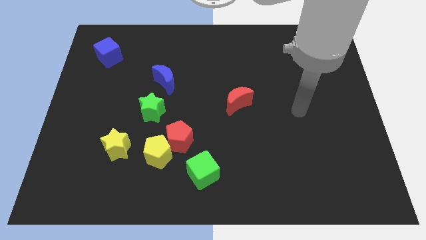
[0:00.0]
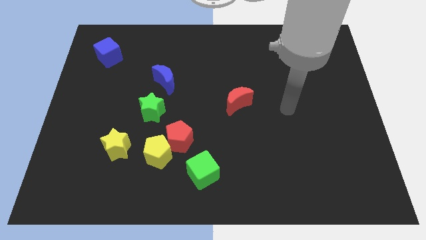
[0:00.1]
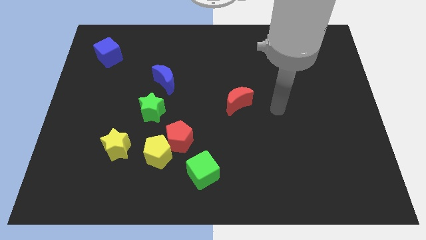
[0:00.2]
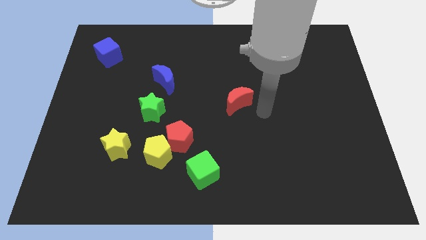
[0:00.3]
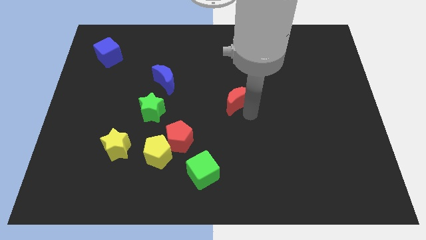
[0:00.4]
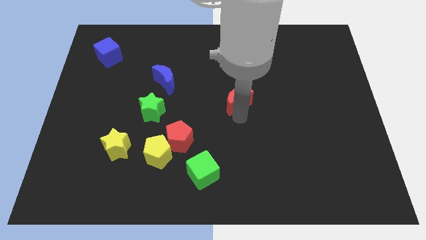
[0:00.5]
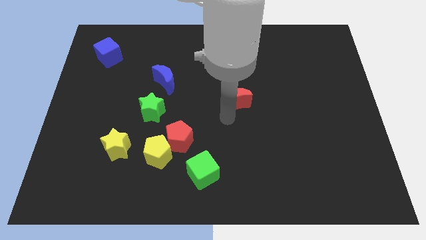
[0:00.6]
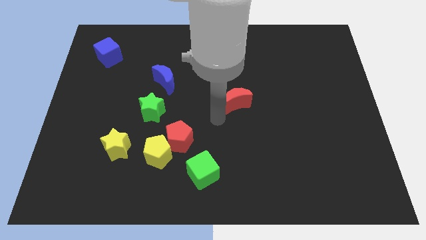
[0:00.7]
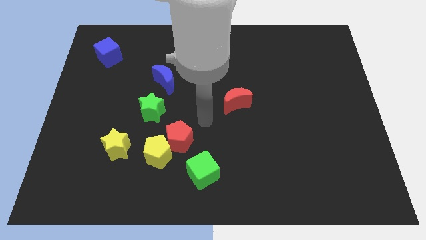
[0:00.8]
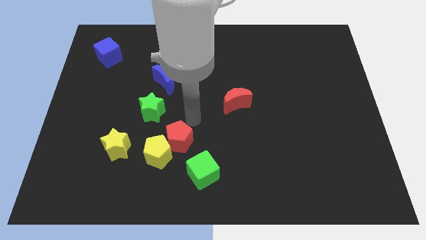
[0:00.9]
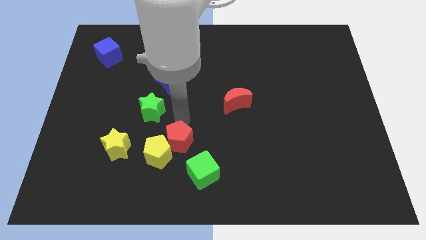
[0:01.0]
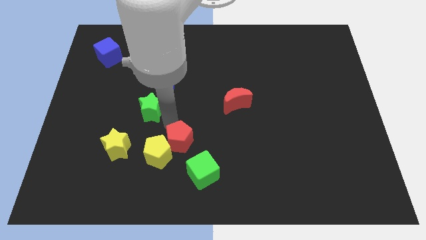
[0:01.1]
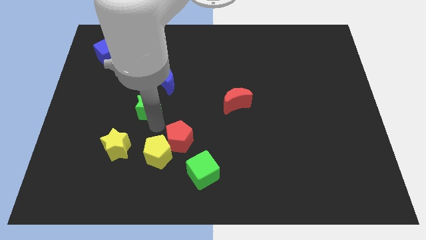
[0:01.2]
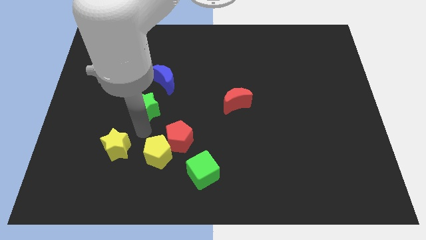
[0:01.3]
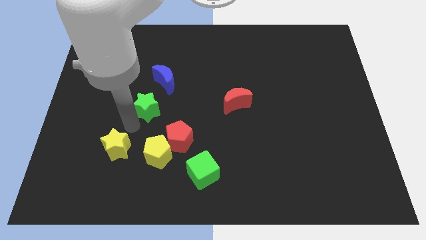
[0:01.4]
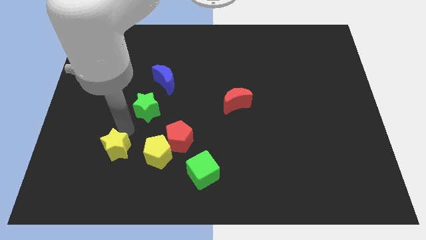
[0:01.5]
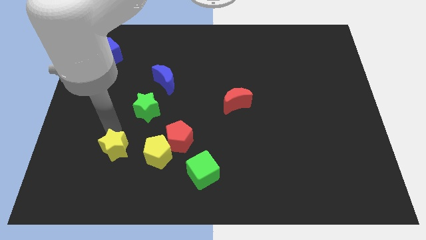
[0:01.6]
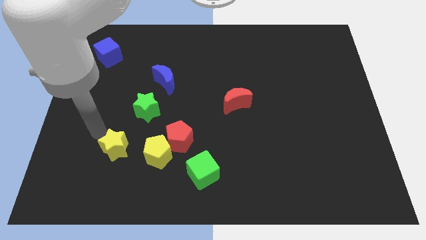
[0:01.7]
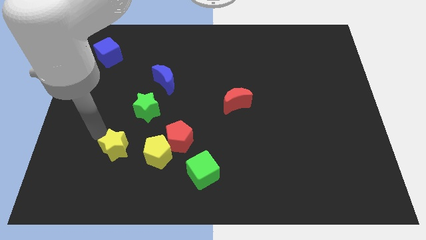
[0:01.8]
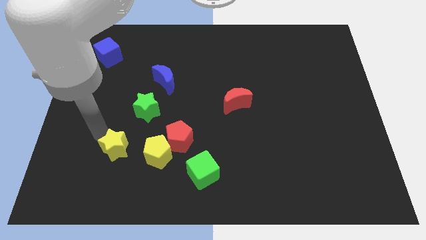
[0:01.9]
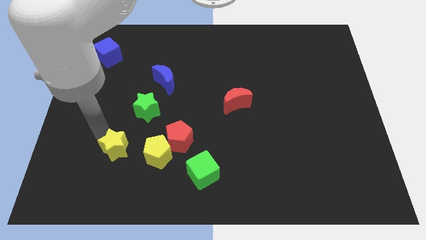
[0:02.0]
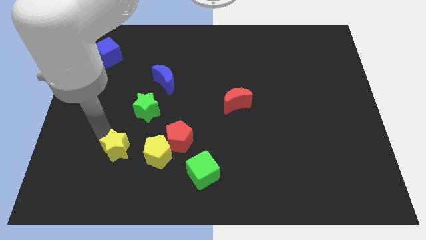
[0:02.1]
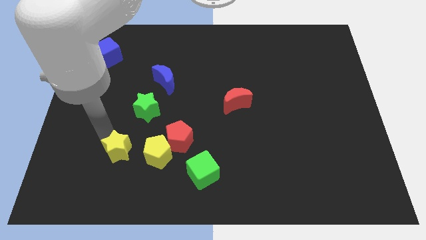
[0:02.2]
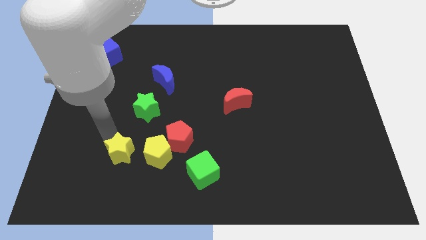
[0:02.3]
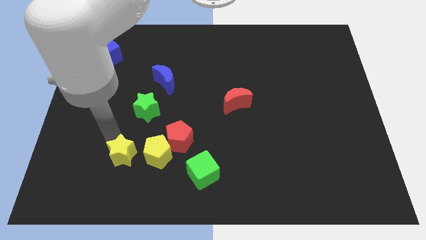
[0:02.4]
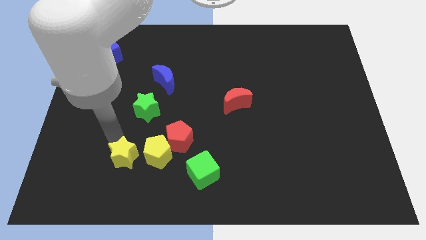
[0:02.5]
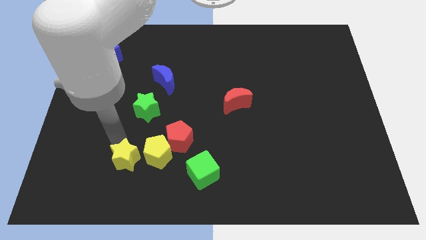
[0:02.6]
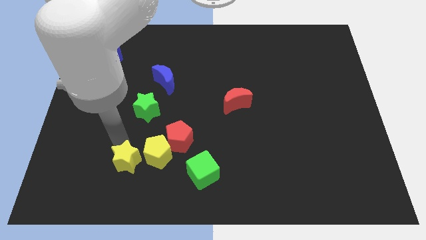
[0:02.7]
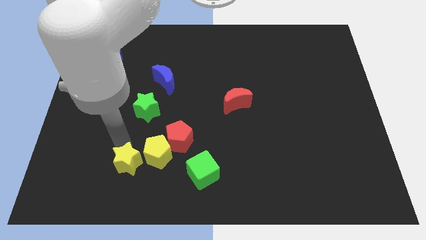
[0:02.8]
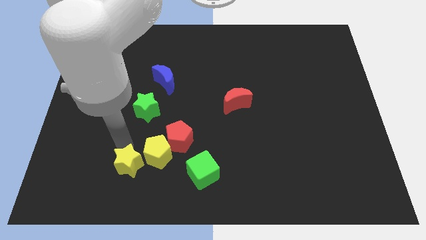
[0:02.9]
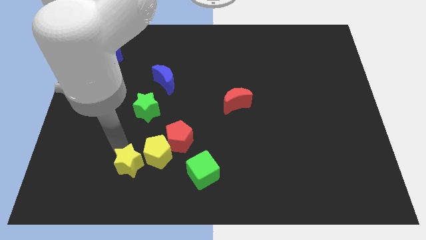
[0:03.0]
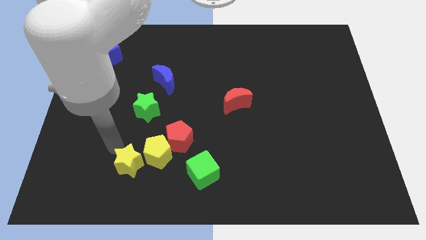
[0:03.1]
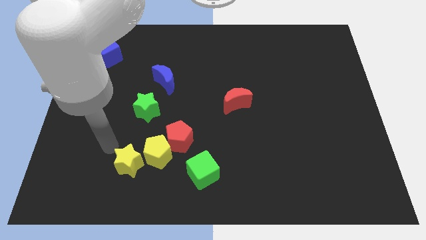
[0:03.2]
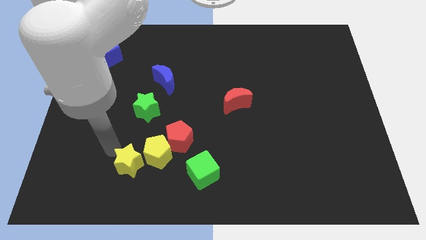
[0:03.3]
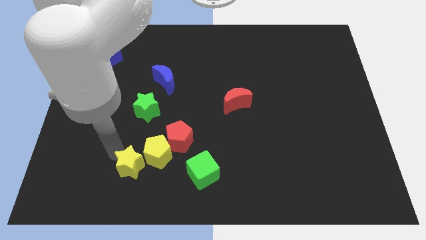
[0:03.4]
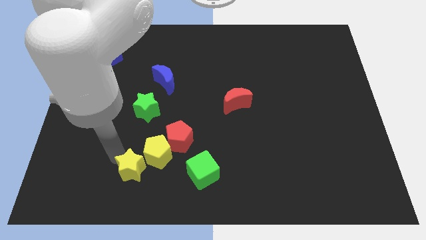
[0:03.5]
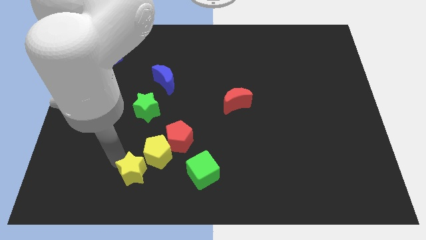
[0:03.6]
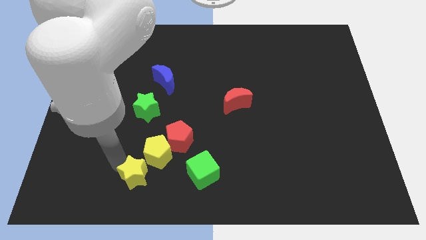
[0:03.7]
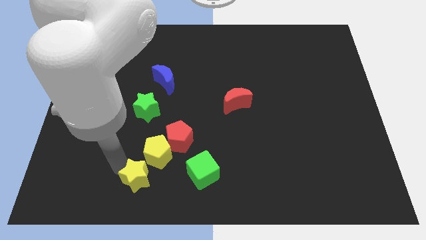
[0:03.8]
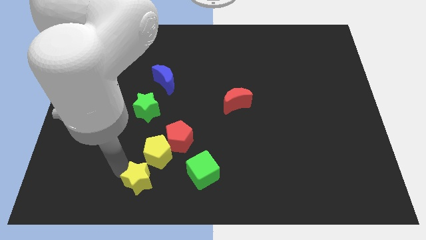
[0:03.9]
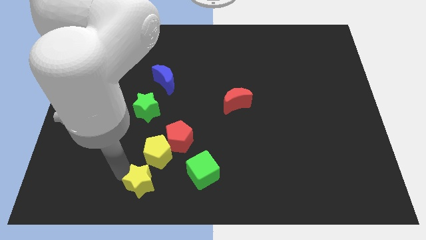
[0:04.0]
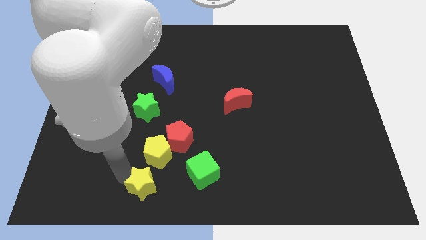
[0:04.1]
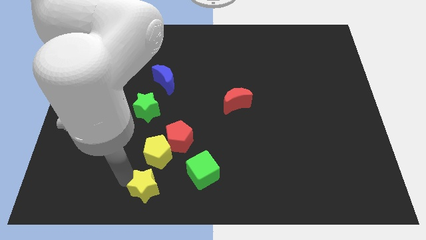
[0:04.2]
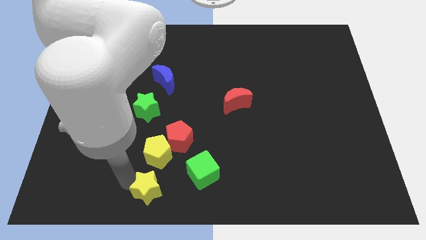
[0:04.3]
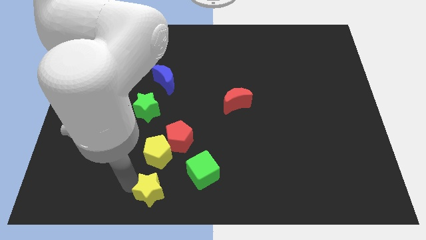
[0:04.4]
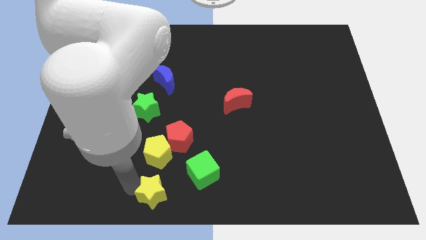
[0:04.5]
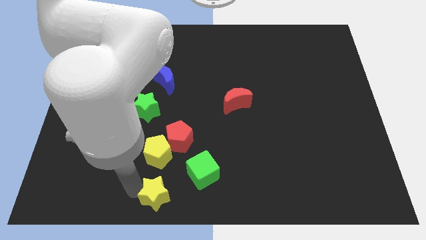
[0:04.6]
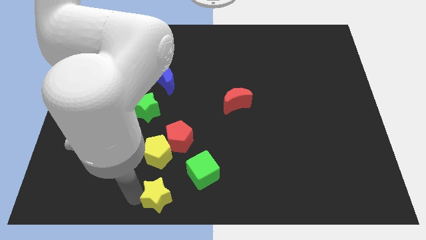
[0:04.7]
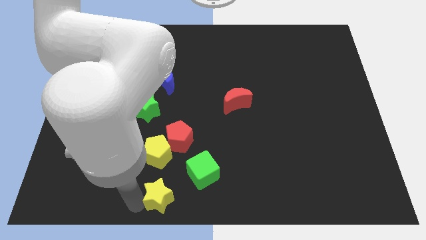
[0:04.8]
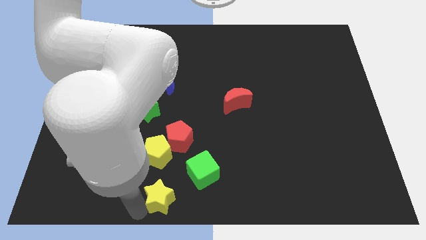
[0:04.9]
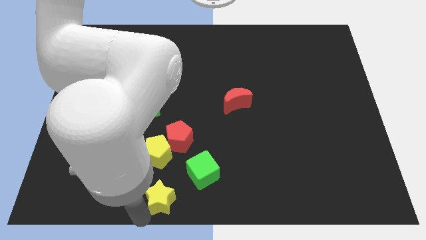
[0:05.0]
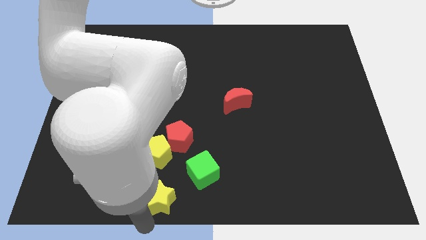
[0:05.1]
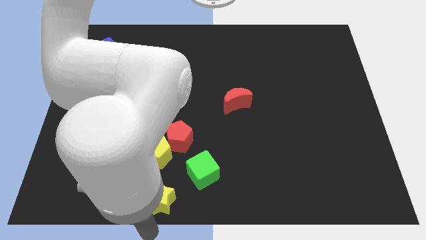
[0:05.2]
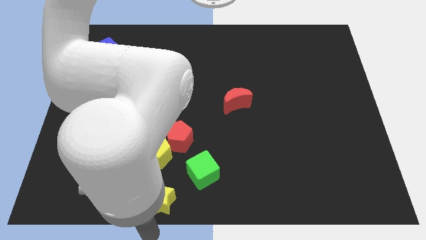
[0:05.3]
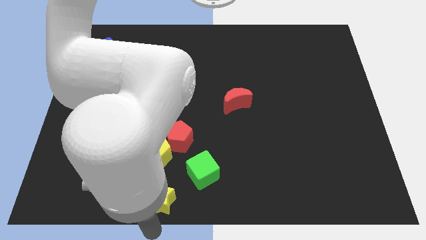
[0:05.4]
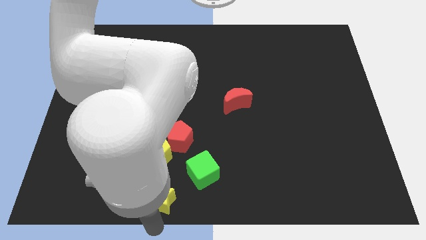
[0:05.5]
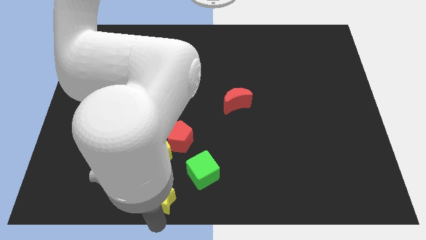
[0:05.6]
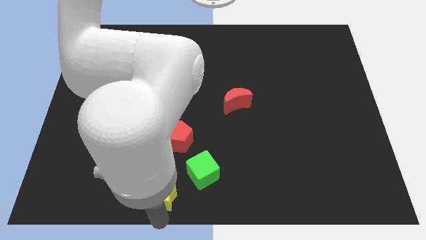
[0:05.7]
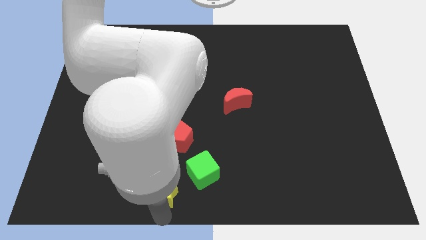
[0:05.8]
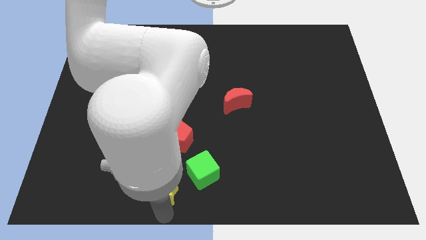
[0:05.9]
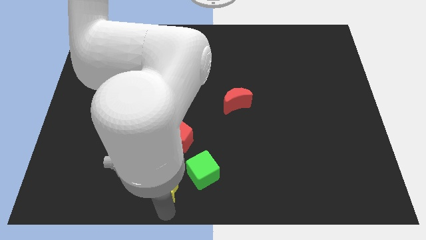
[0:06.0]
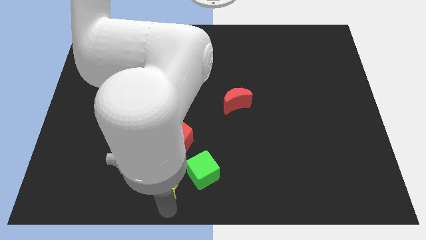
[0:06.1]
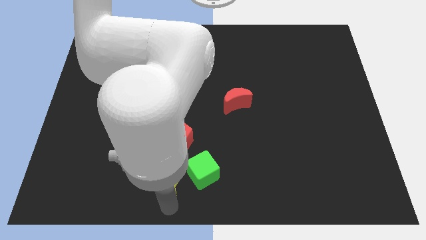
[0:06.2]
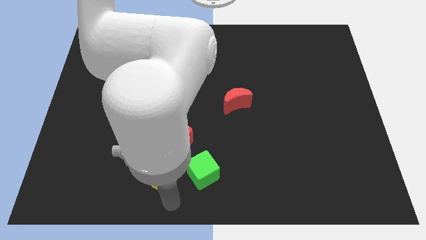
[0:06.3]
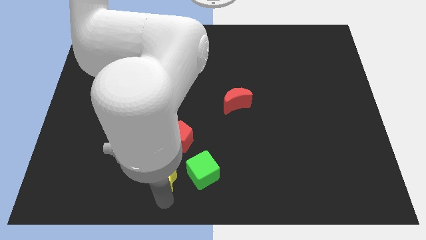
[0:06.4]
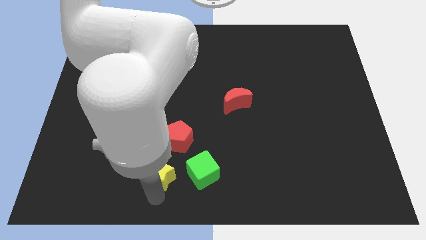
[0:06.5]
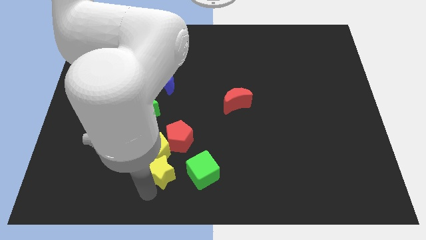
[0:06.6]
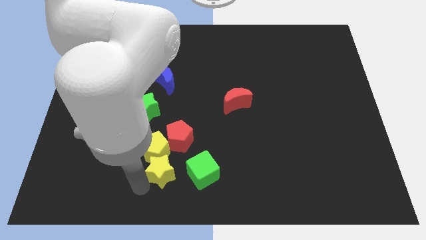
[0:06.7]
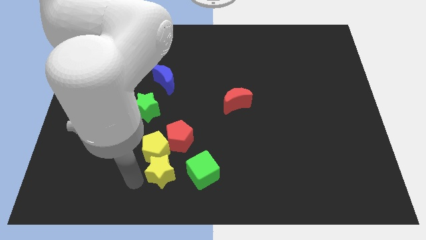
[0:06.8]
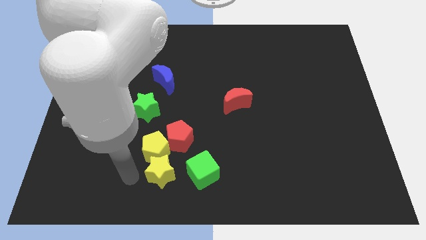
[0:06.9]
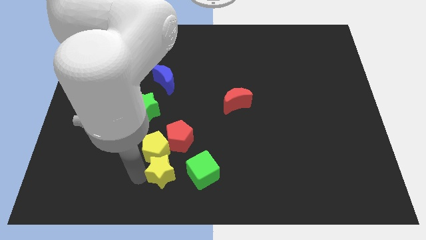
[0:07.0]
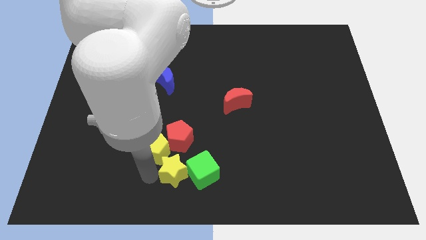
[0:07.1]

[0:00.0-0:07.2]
put the yellow star to the green cube

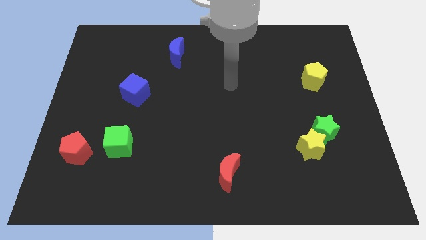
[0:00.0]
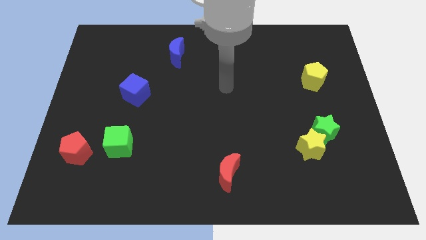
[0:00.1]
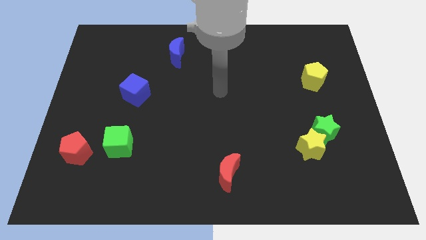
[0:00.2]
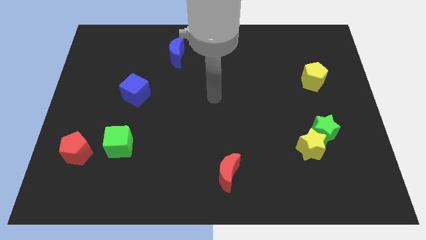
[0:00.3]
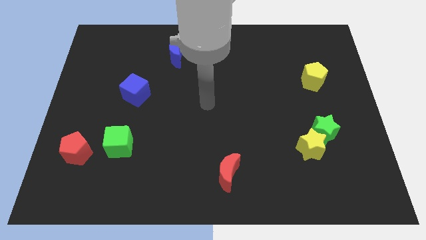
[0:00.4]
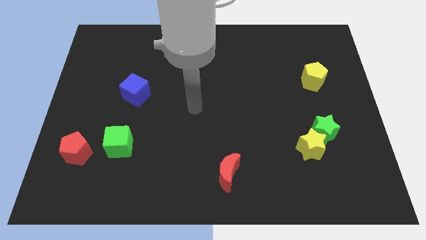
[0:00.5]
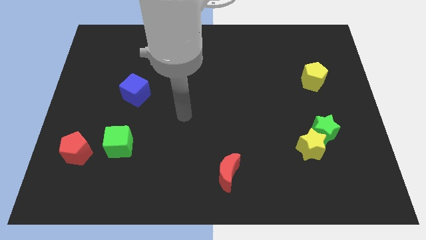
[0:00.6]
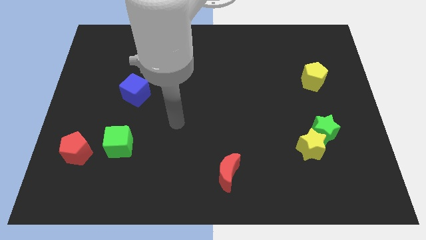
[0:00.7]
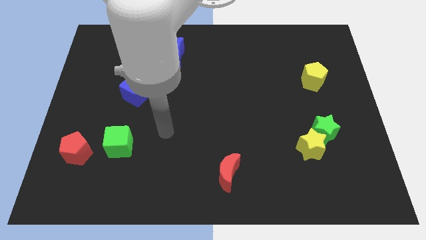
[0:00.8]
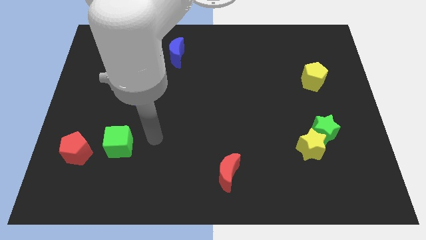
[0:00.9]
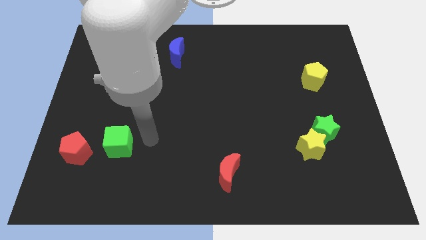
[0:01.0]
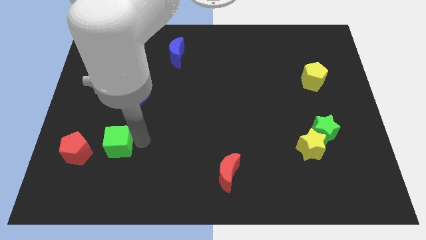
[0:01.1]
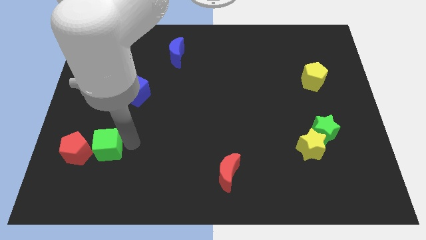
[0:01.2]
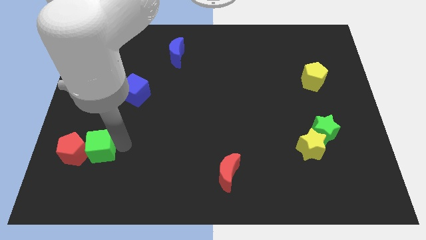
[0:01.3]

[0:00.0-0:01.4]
slide the green cube towards the red pentagon
